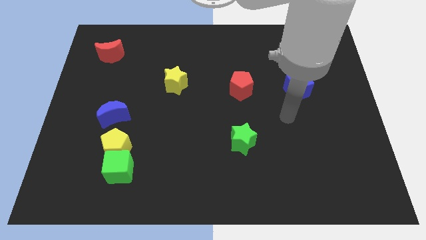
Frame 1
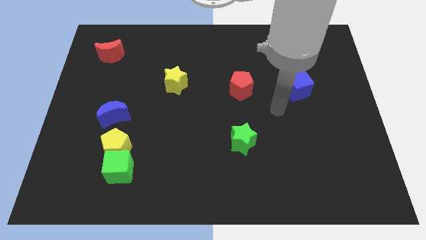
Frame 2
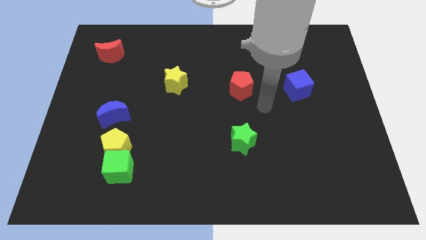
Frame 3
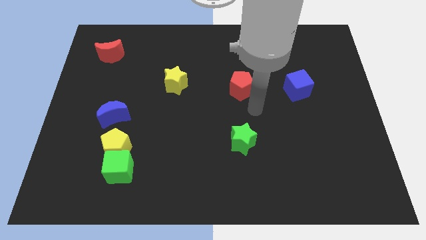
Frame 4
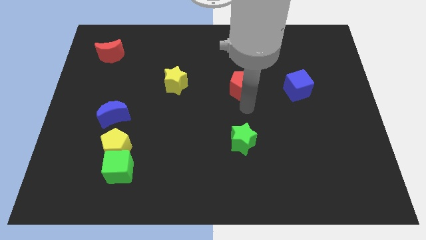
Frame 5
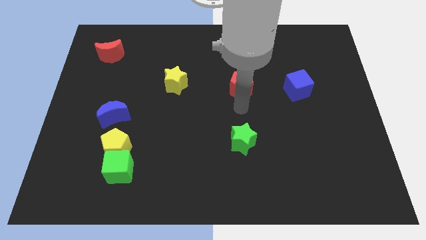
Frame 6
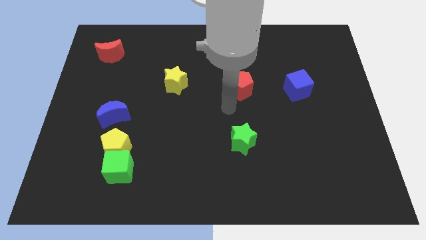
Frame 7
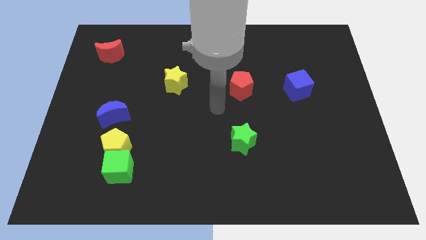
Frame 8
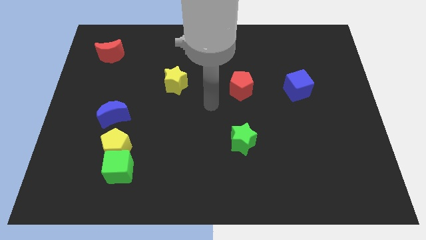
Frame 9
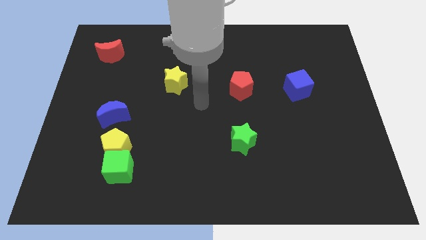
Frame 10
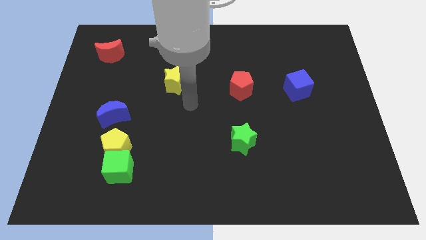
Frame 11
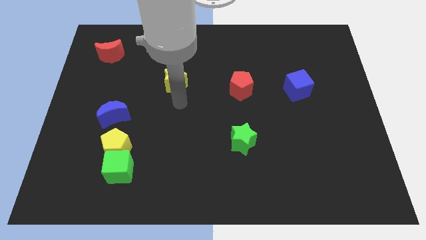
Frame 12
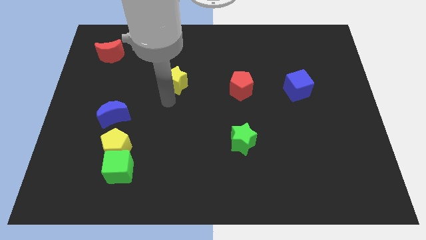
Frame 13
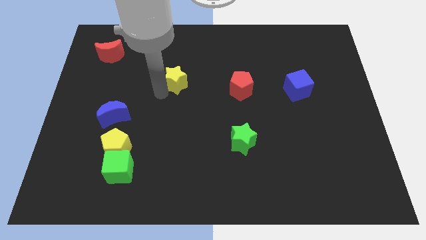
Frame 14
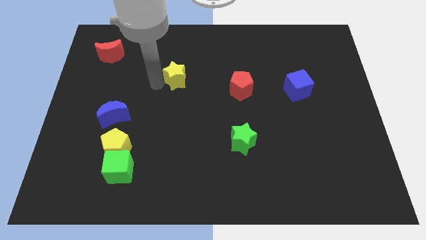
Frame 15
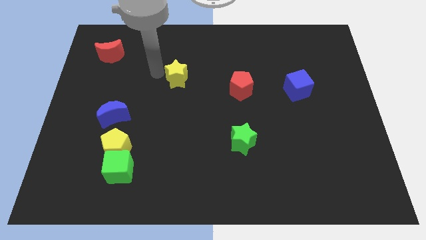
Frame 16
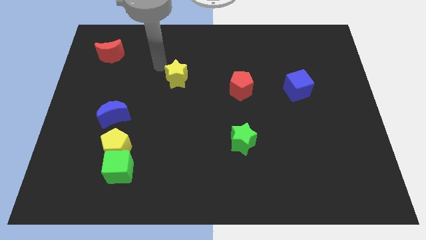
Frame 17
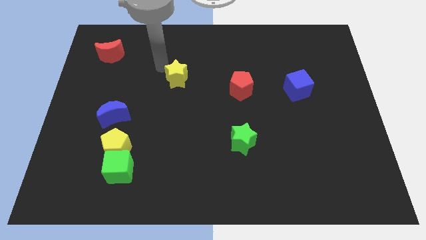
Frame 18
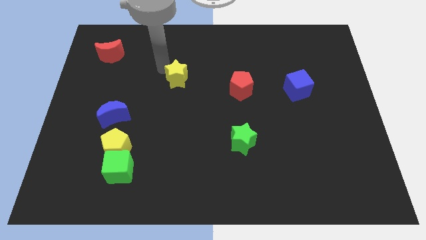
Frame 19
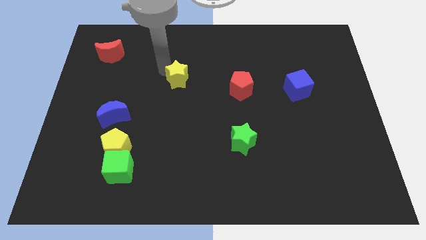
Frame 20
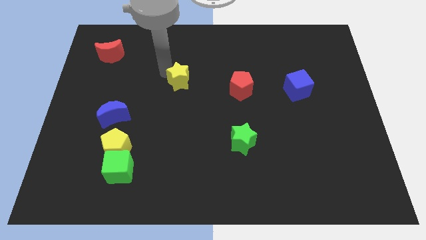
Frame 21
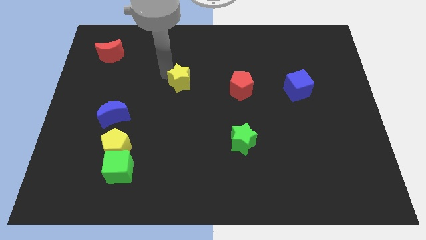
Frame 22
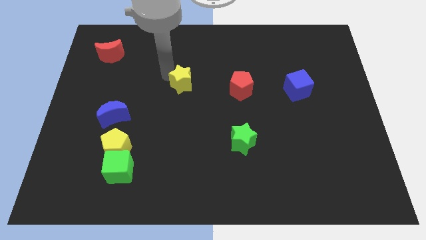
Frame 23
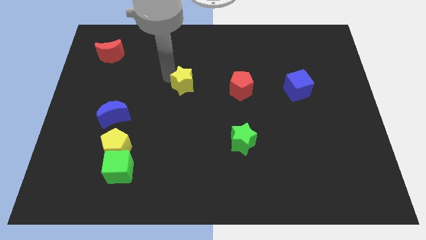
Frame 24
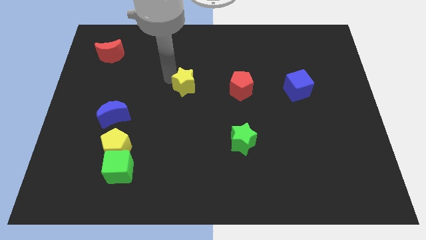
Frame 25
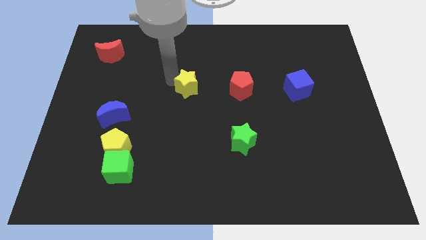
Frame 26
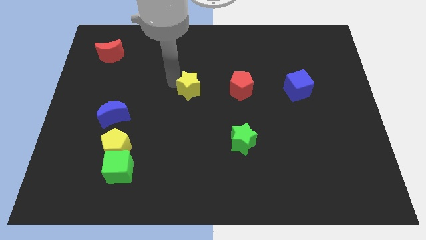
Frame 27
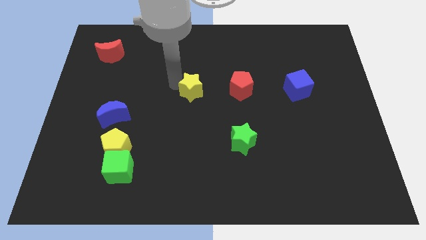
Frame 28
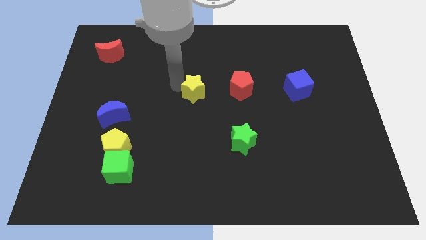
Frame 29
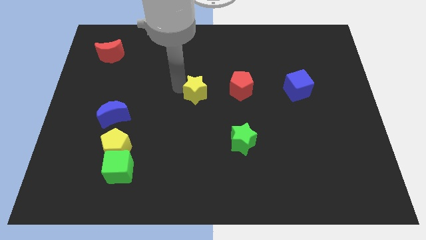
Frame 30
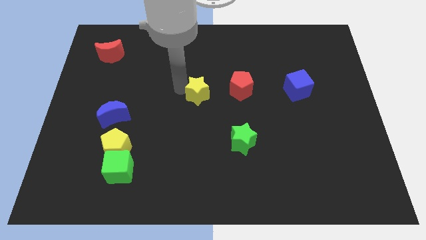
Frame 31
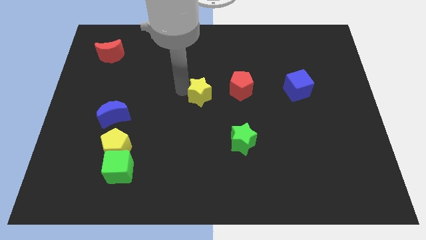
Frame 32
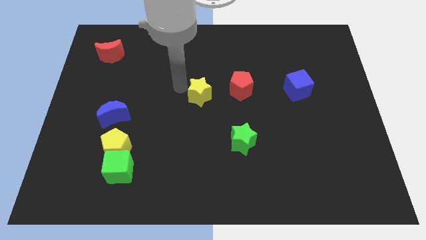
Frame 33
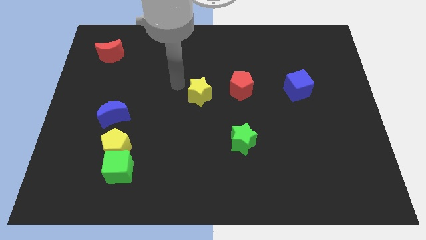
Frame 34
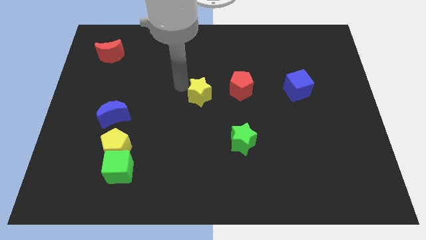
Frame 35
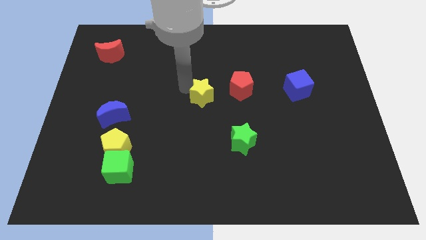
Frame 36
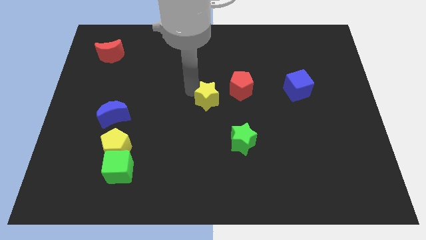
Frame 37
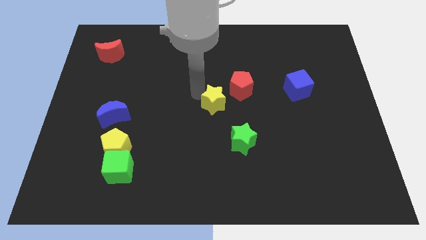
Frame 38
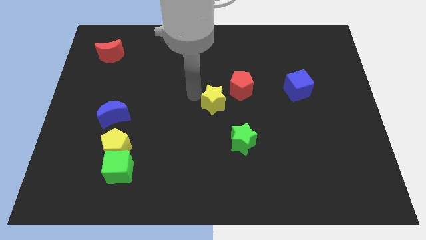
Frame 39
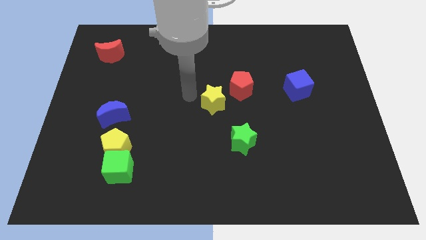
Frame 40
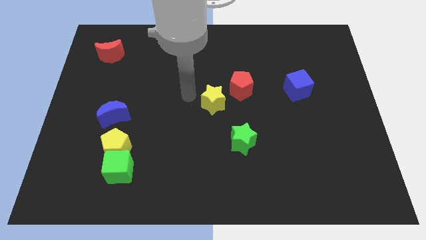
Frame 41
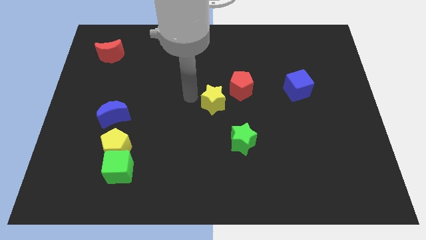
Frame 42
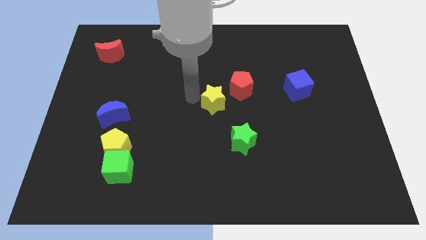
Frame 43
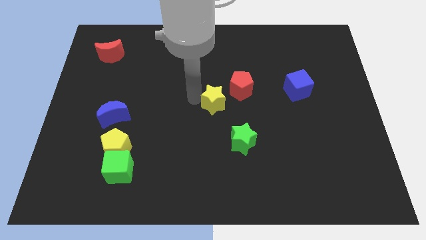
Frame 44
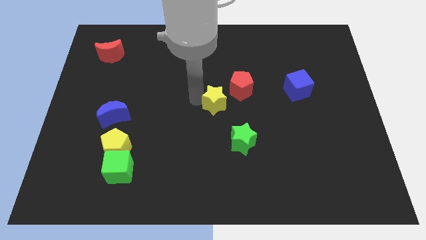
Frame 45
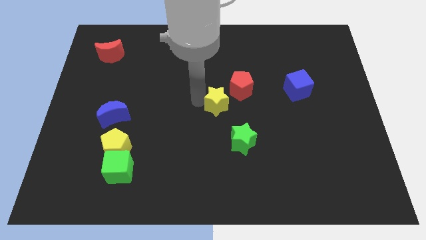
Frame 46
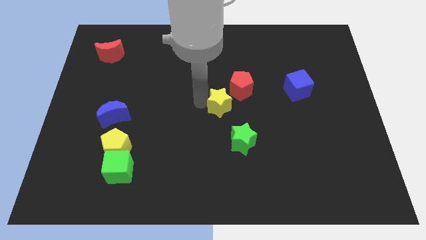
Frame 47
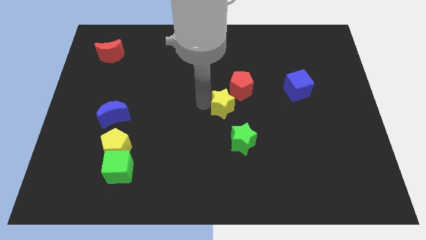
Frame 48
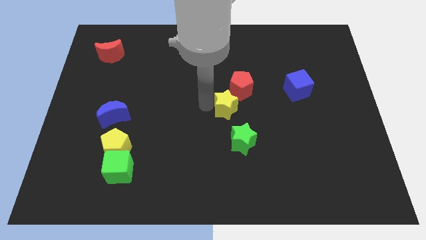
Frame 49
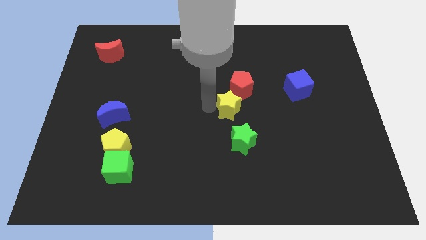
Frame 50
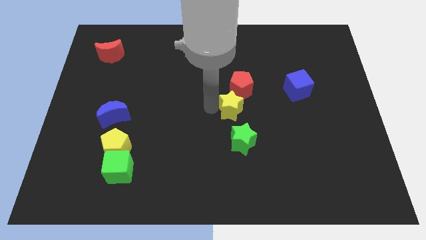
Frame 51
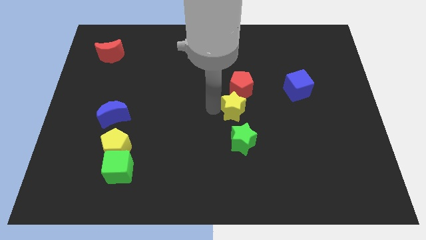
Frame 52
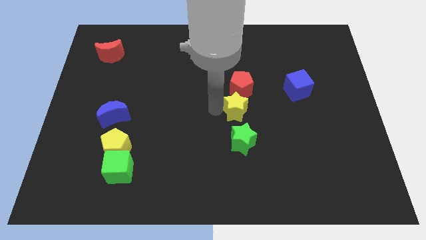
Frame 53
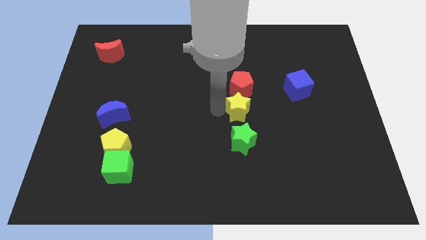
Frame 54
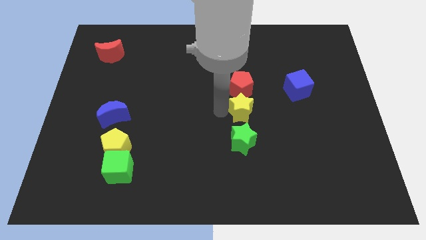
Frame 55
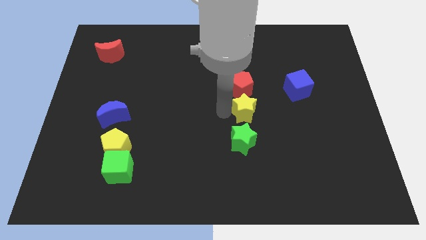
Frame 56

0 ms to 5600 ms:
move the yellow star to the bottom right of the red pentagon

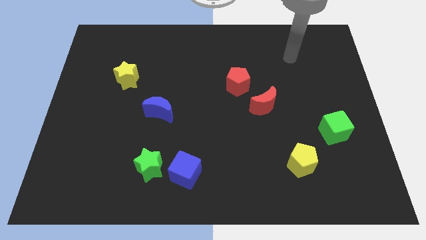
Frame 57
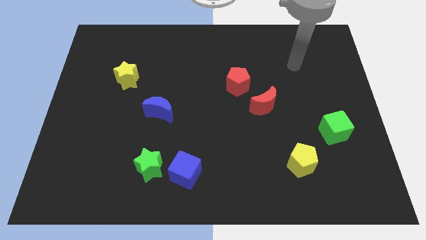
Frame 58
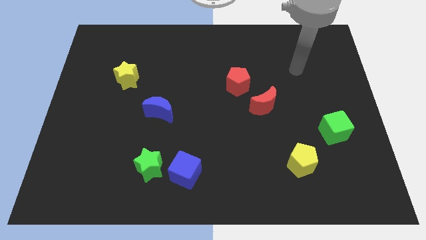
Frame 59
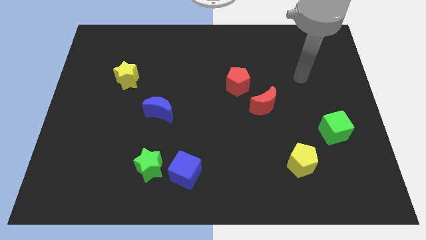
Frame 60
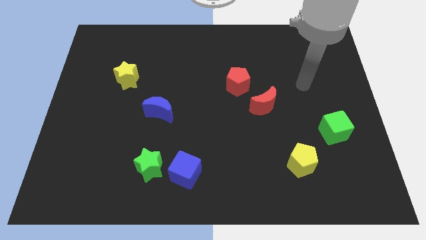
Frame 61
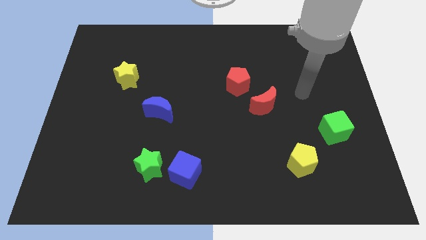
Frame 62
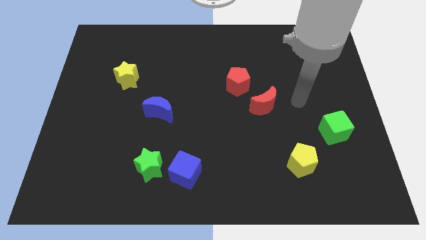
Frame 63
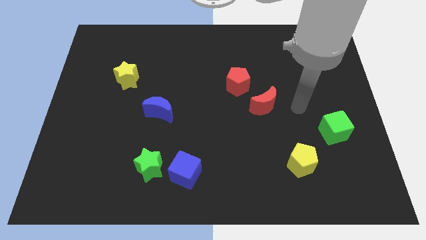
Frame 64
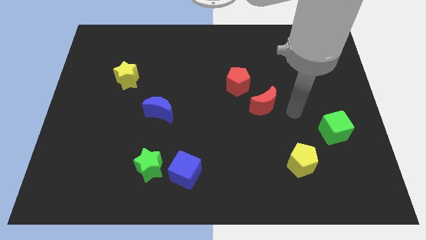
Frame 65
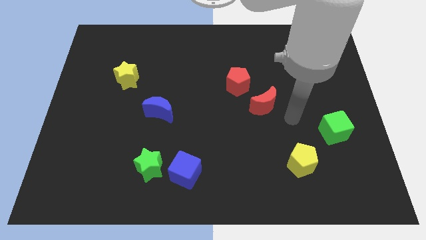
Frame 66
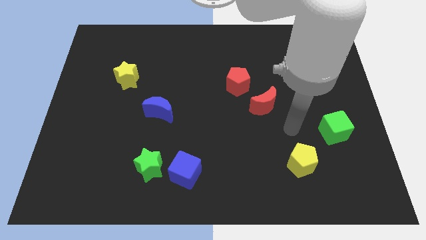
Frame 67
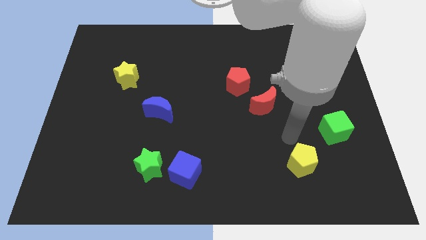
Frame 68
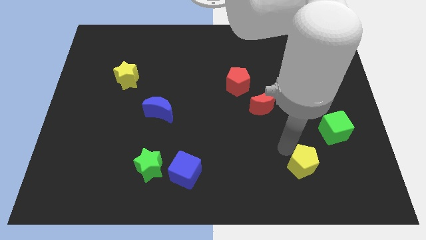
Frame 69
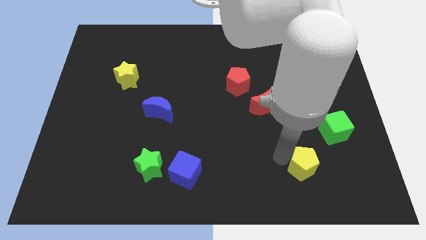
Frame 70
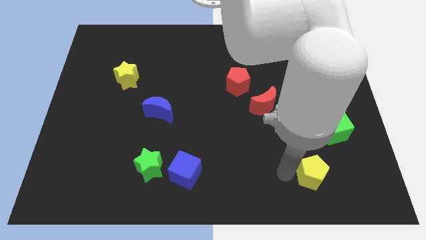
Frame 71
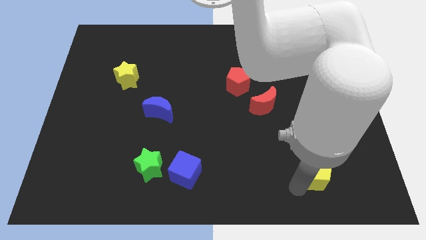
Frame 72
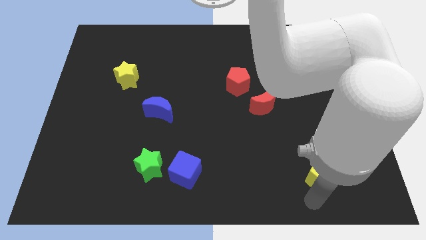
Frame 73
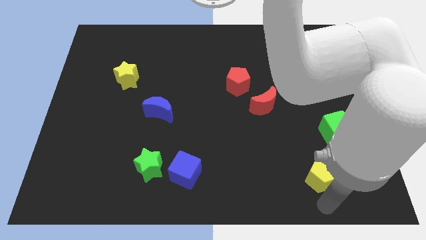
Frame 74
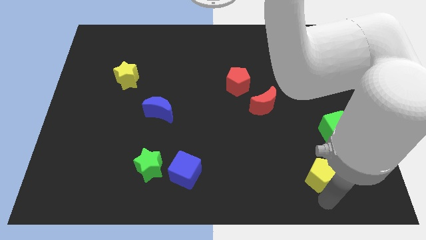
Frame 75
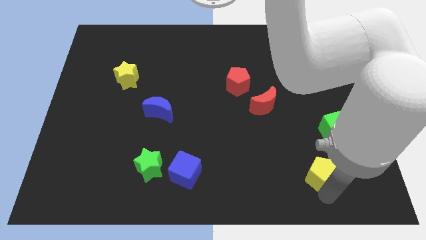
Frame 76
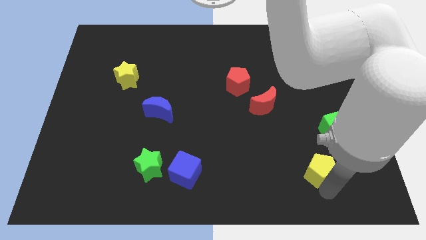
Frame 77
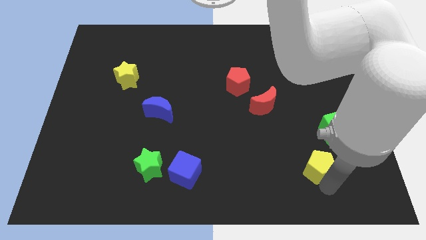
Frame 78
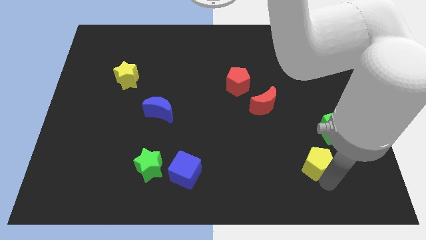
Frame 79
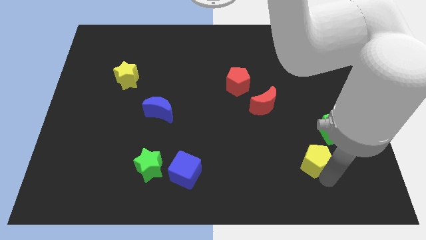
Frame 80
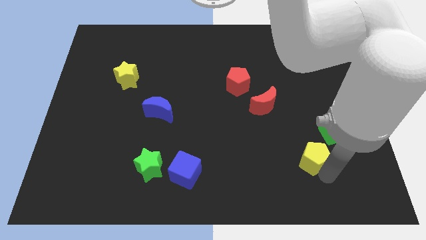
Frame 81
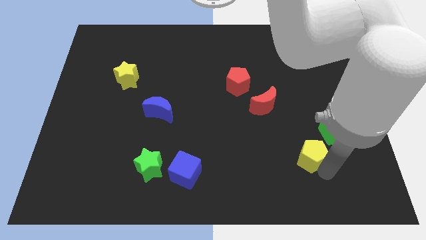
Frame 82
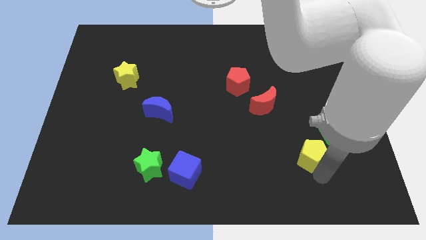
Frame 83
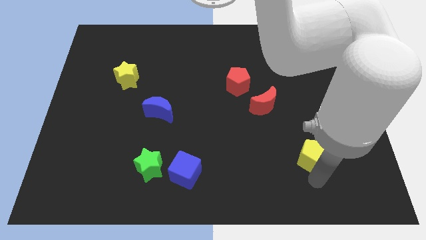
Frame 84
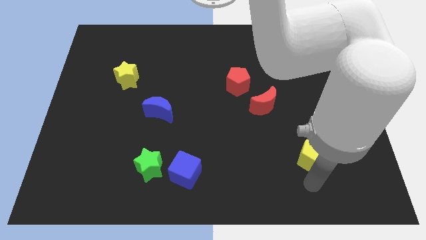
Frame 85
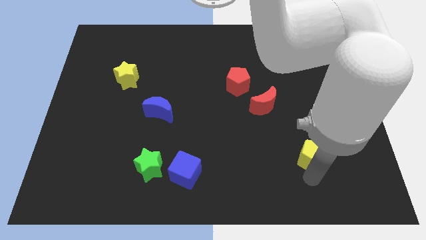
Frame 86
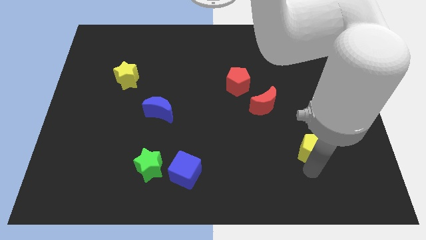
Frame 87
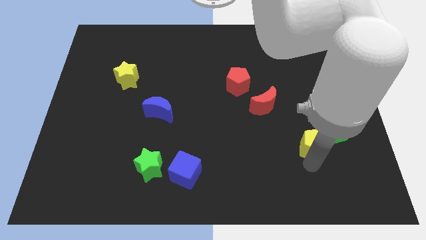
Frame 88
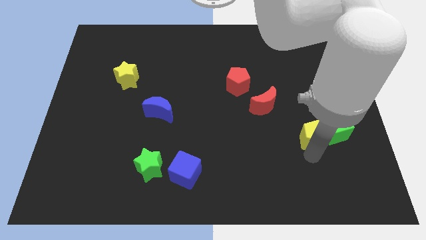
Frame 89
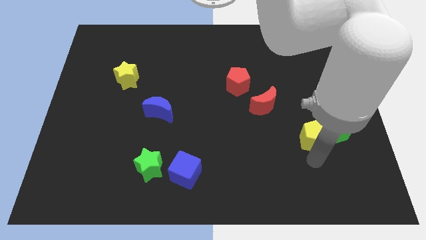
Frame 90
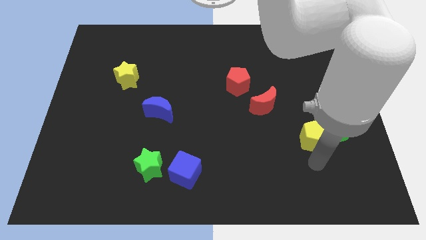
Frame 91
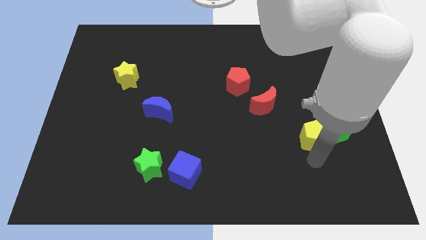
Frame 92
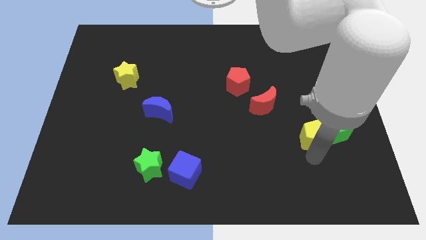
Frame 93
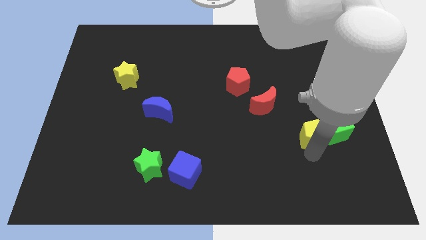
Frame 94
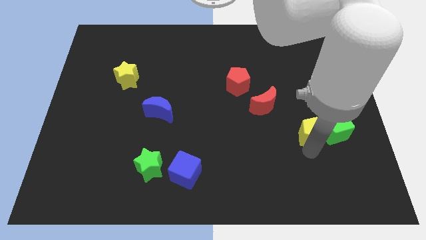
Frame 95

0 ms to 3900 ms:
slide the yellow pentagon to the top left of the green cube
